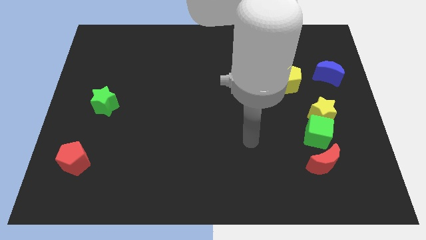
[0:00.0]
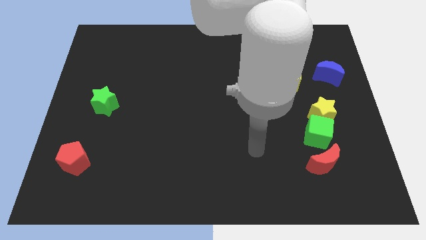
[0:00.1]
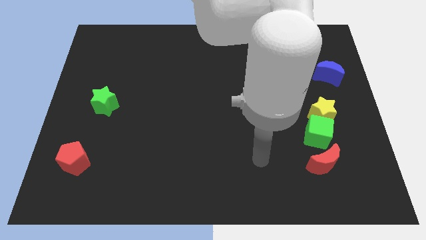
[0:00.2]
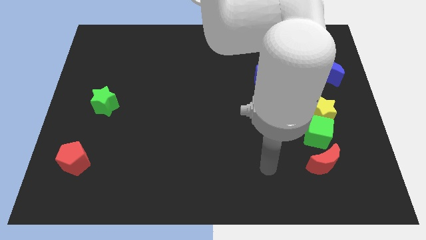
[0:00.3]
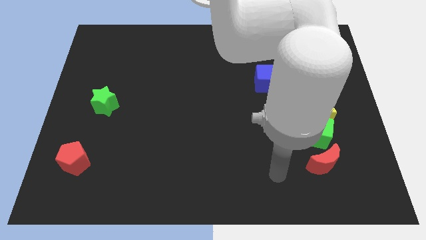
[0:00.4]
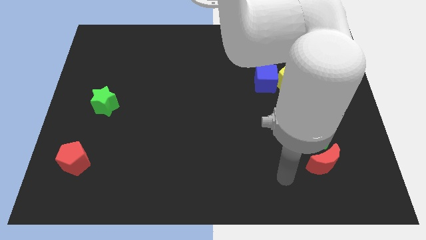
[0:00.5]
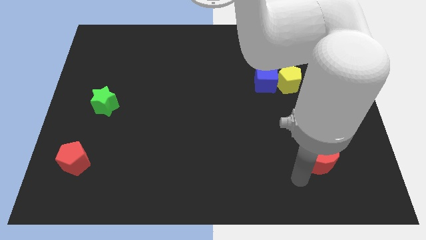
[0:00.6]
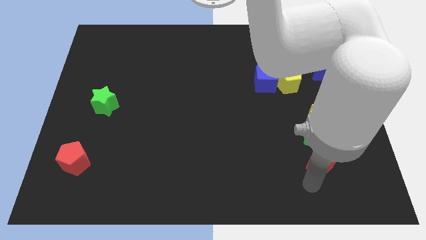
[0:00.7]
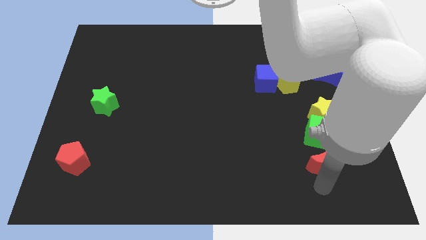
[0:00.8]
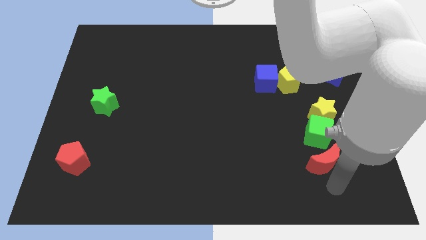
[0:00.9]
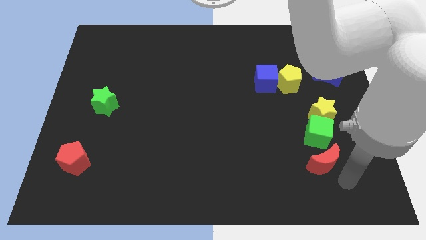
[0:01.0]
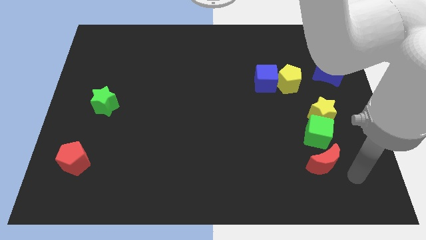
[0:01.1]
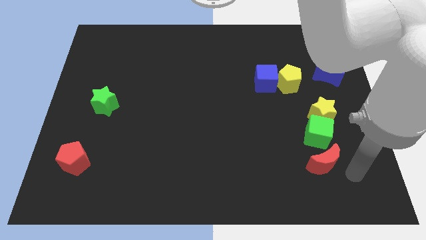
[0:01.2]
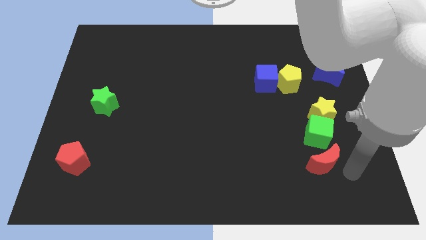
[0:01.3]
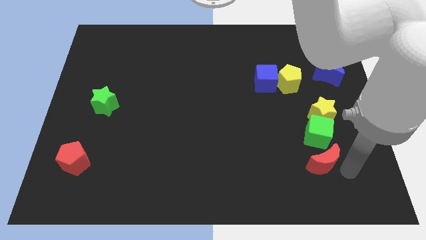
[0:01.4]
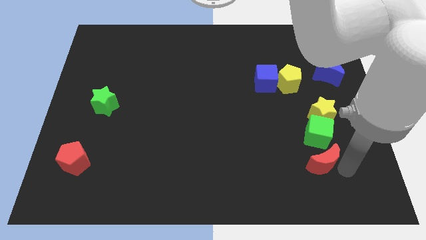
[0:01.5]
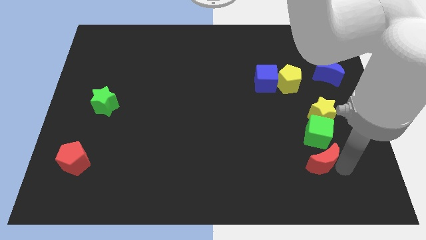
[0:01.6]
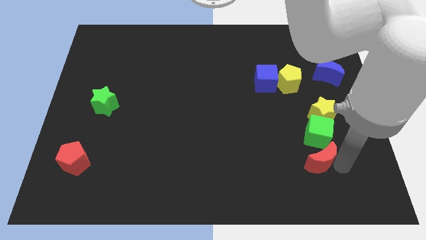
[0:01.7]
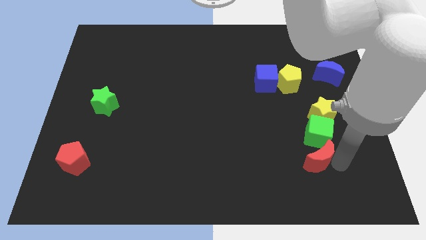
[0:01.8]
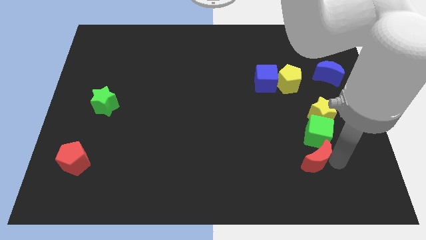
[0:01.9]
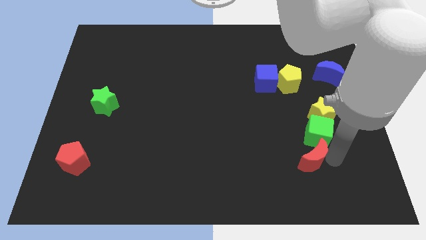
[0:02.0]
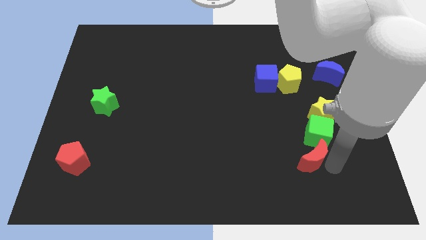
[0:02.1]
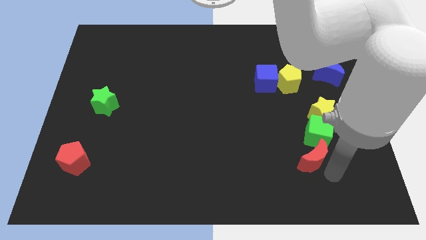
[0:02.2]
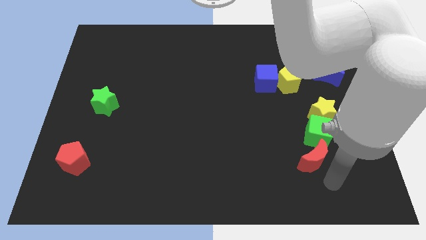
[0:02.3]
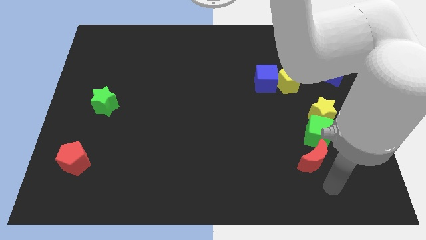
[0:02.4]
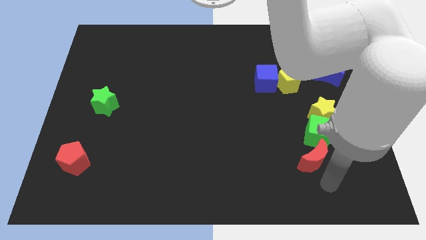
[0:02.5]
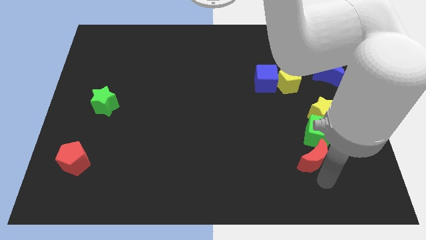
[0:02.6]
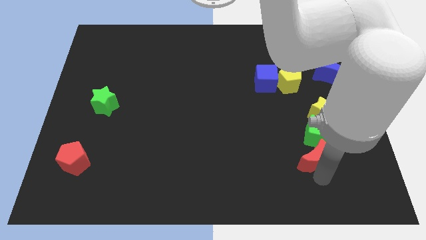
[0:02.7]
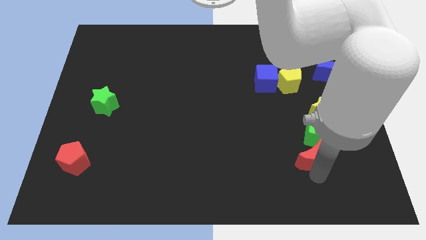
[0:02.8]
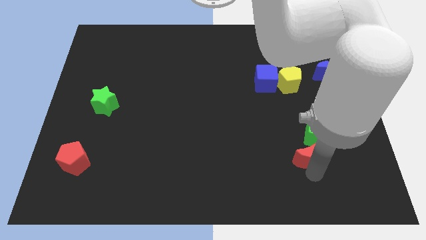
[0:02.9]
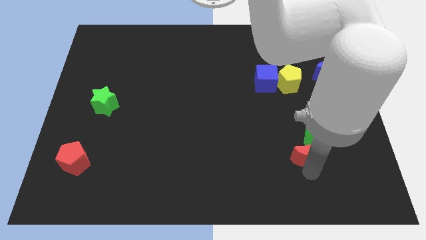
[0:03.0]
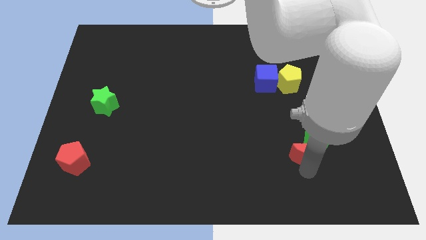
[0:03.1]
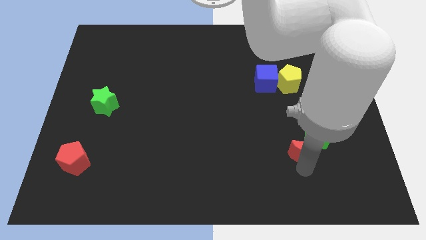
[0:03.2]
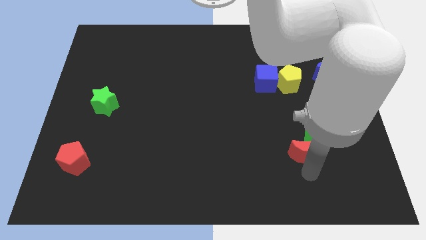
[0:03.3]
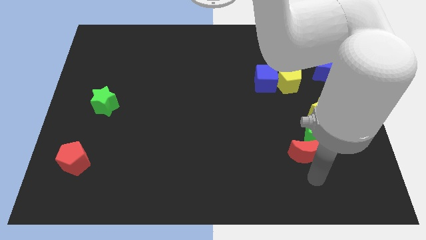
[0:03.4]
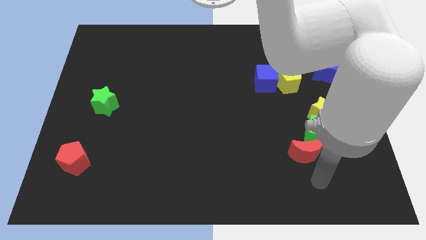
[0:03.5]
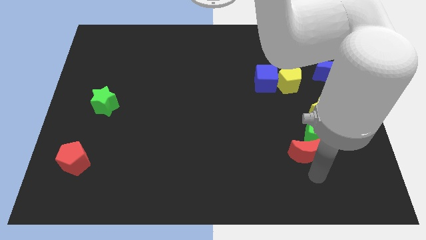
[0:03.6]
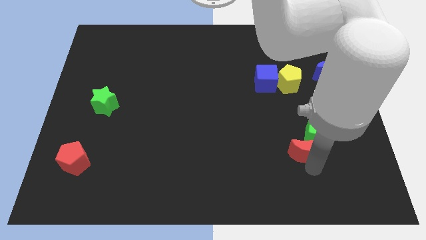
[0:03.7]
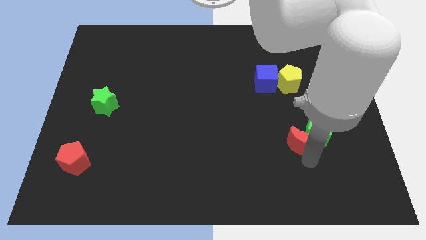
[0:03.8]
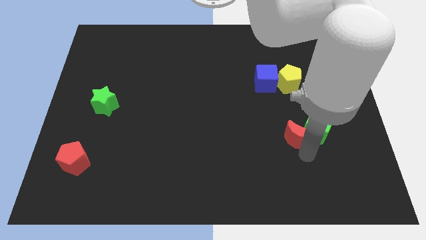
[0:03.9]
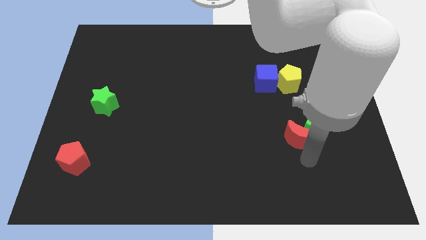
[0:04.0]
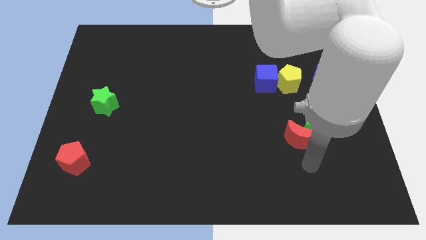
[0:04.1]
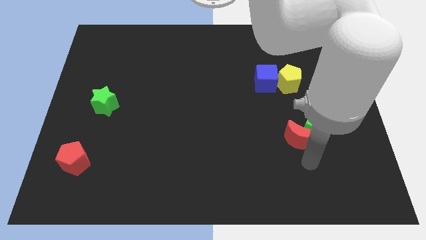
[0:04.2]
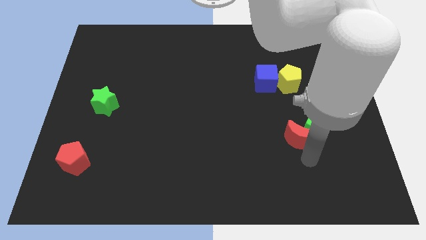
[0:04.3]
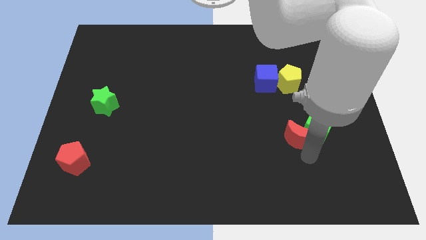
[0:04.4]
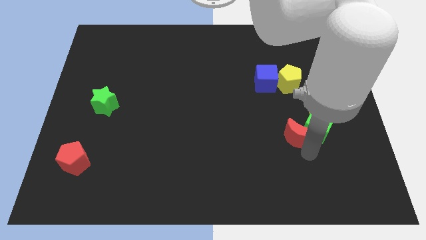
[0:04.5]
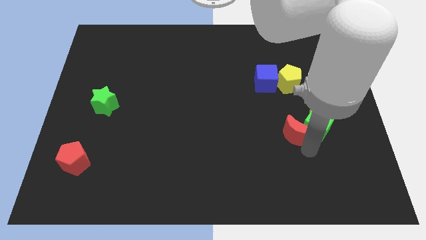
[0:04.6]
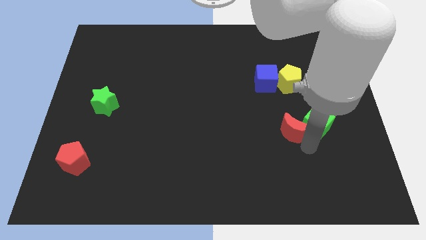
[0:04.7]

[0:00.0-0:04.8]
push the red moon upwards a little bit

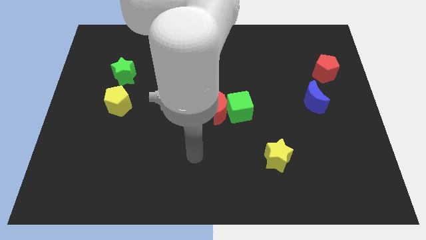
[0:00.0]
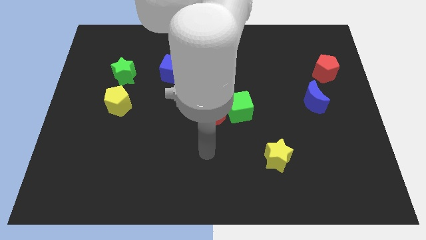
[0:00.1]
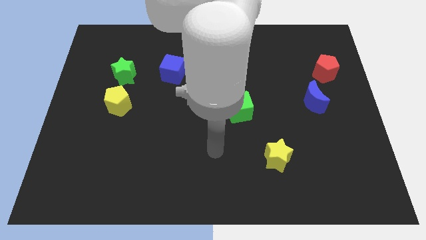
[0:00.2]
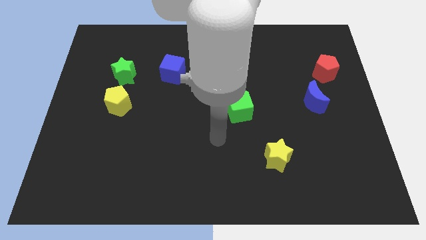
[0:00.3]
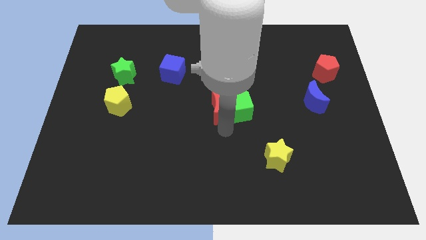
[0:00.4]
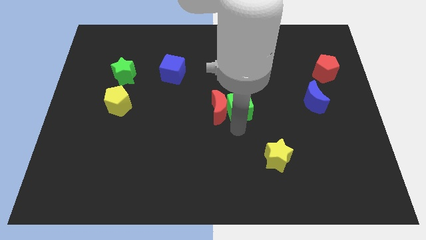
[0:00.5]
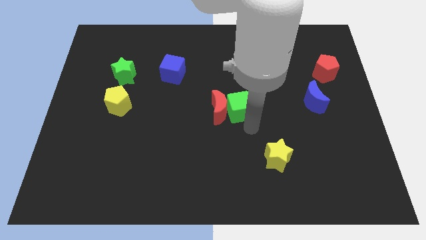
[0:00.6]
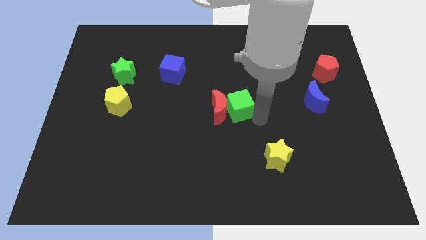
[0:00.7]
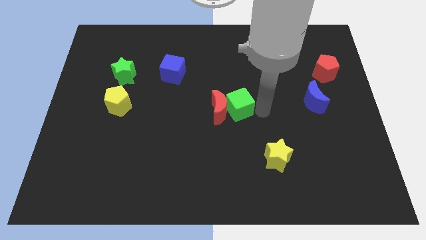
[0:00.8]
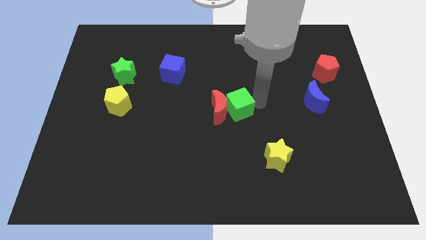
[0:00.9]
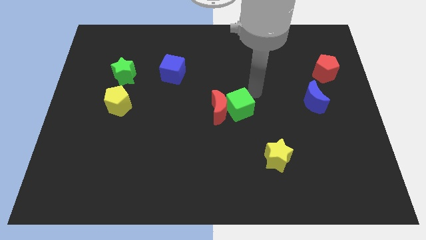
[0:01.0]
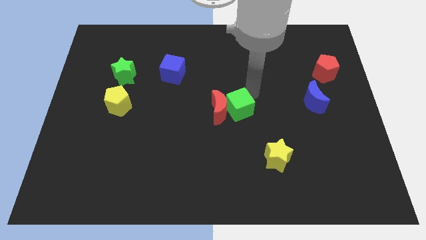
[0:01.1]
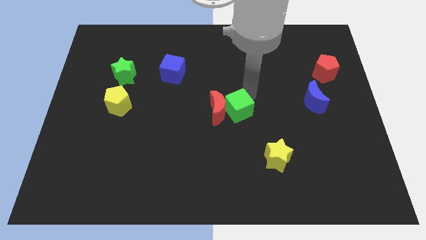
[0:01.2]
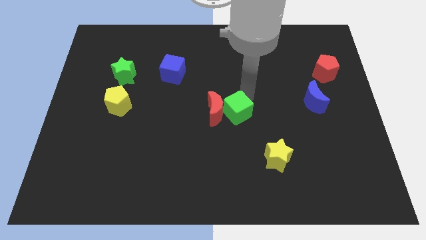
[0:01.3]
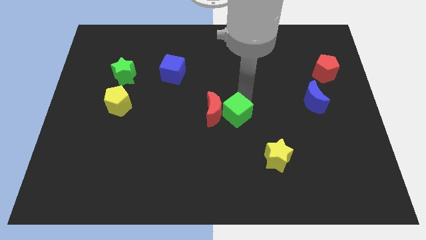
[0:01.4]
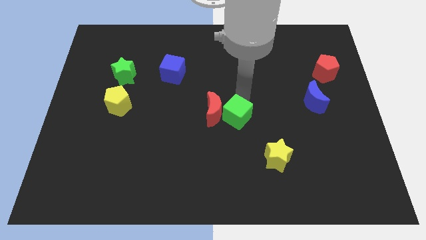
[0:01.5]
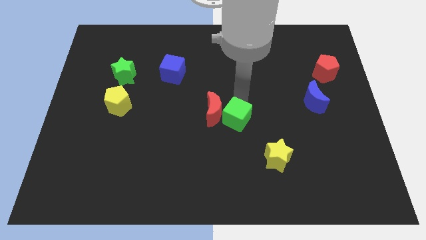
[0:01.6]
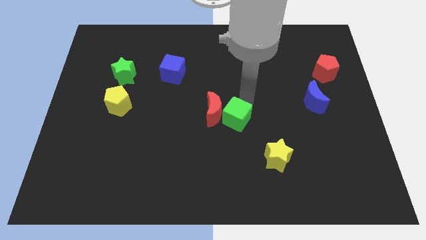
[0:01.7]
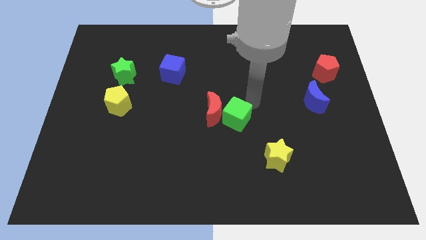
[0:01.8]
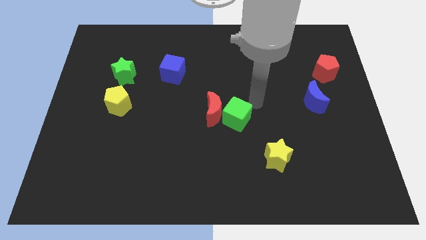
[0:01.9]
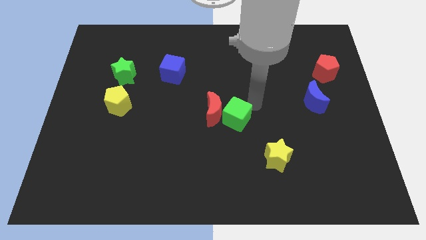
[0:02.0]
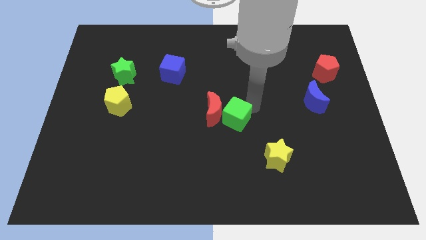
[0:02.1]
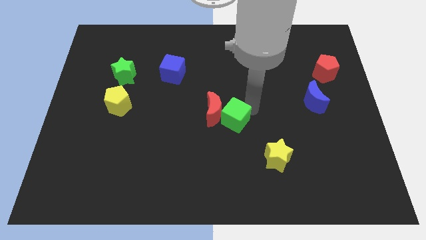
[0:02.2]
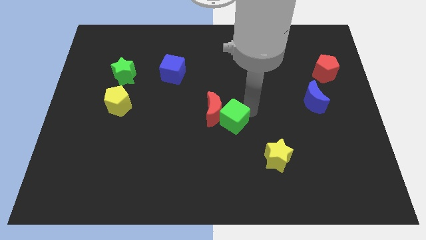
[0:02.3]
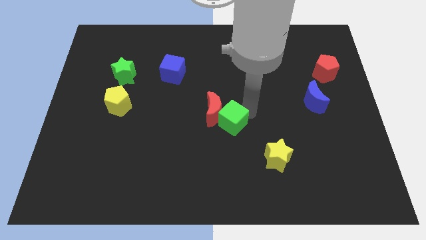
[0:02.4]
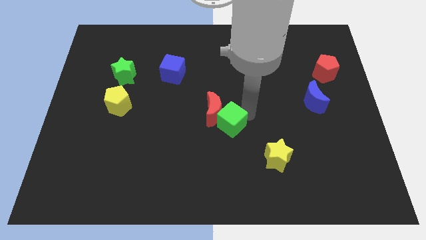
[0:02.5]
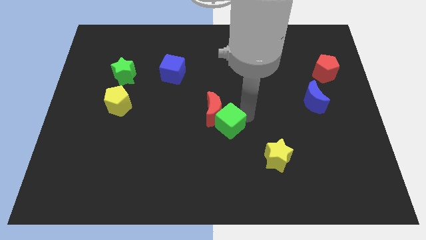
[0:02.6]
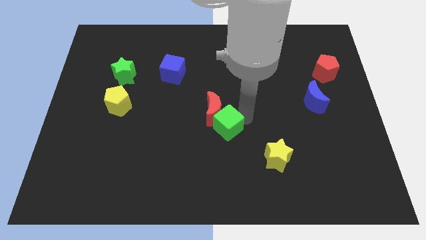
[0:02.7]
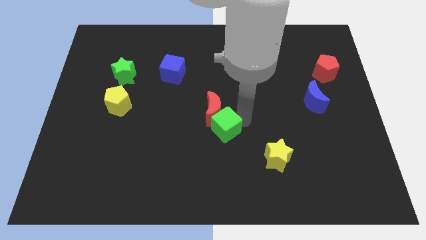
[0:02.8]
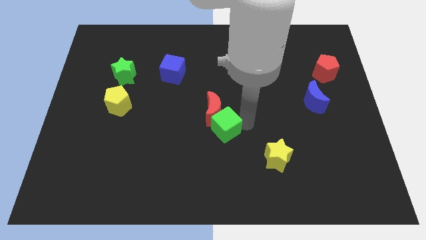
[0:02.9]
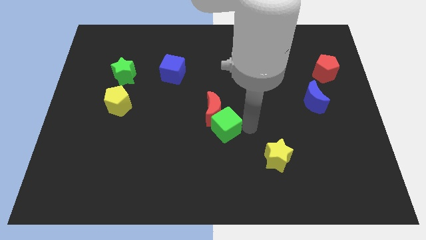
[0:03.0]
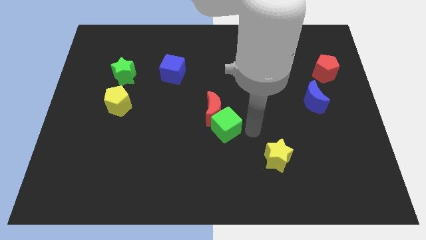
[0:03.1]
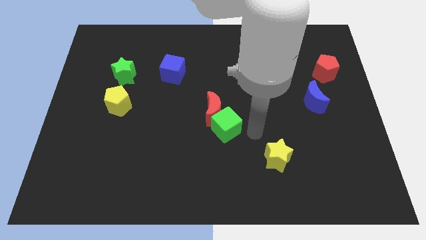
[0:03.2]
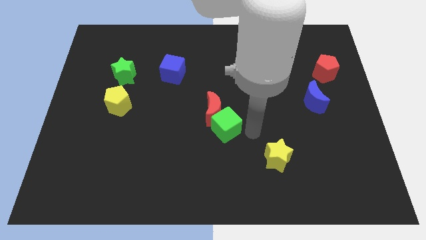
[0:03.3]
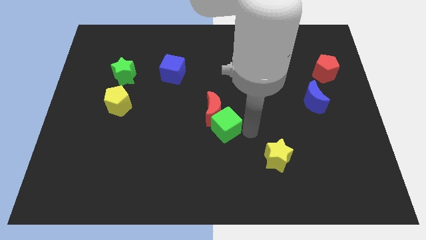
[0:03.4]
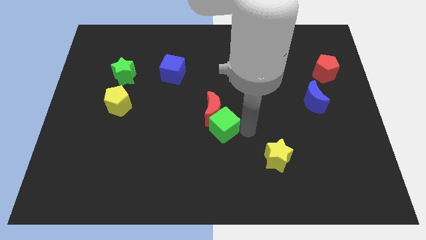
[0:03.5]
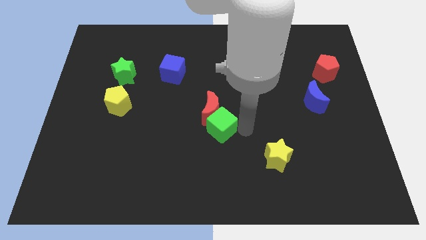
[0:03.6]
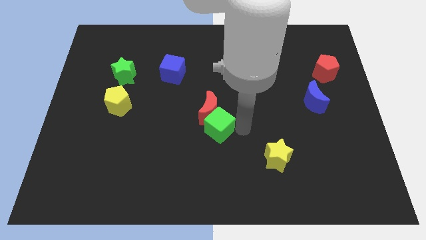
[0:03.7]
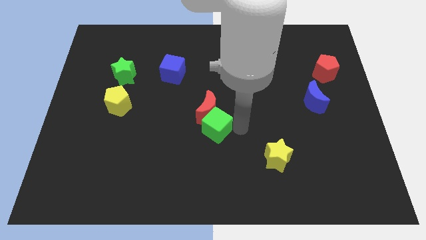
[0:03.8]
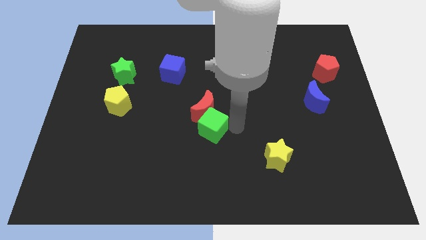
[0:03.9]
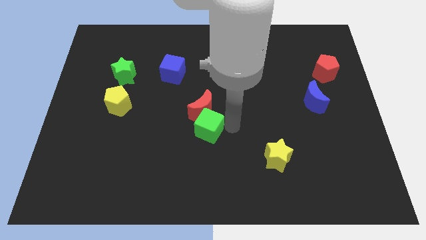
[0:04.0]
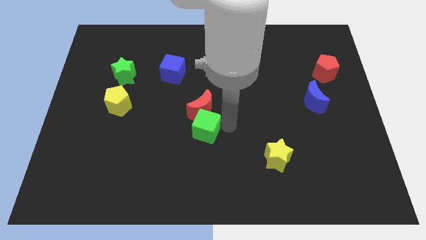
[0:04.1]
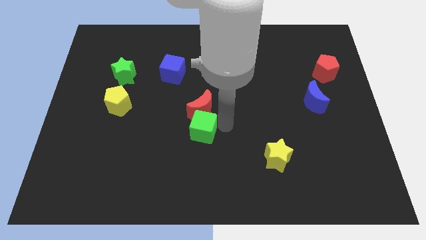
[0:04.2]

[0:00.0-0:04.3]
move the green cube a little to the left
